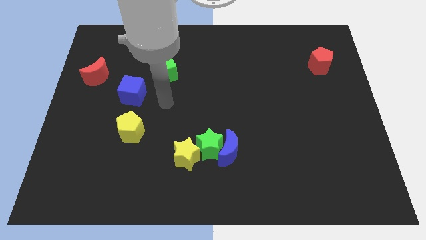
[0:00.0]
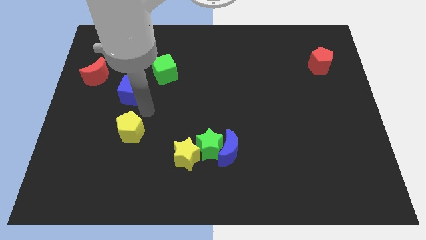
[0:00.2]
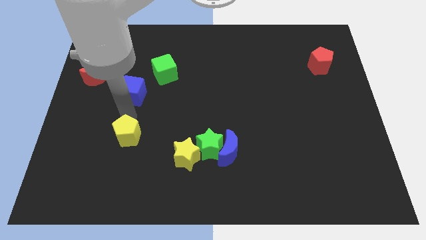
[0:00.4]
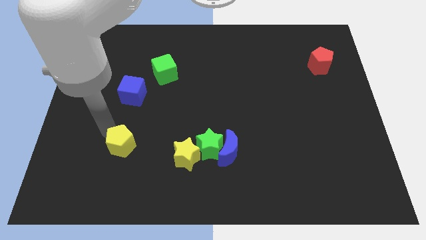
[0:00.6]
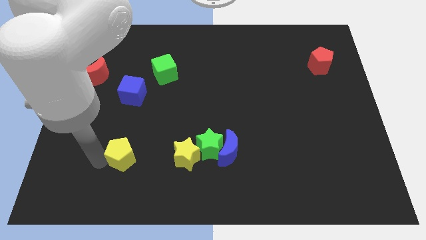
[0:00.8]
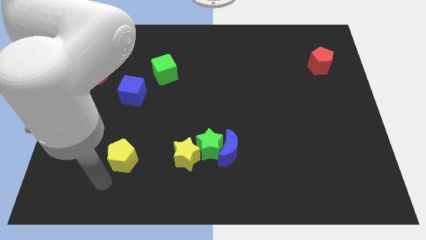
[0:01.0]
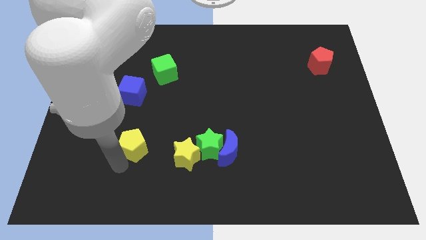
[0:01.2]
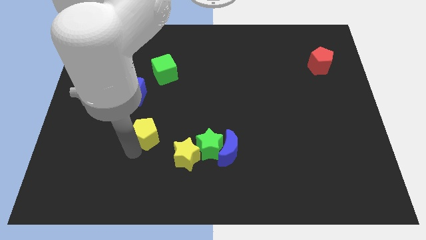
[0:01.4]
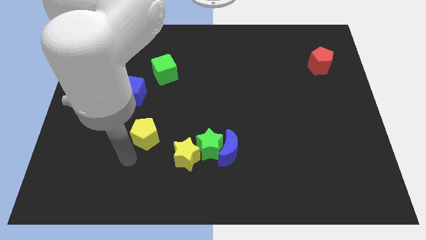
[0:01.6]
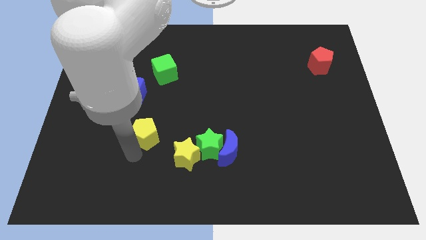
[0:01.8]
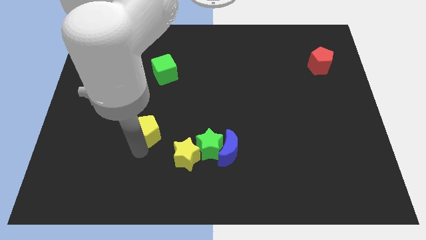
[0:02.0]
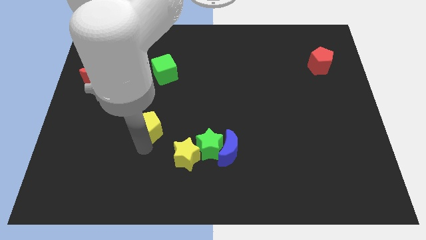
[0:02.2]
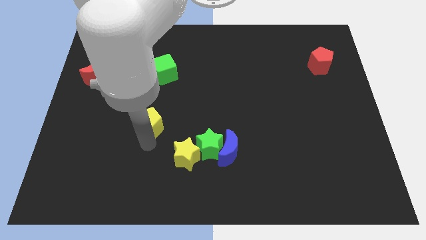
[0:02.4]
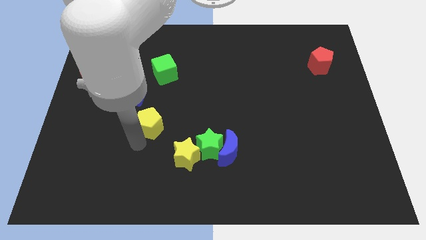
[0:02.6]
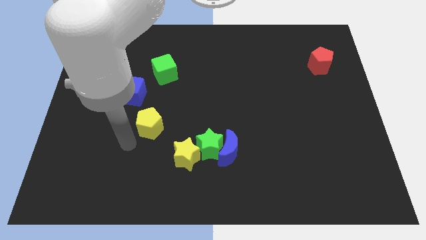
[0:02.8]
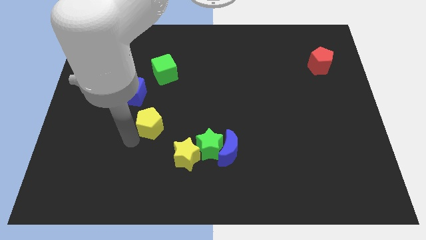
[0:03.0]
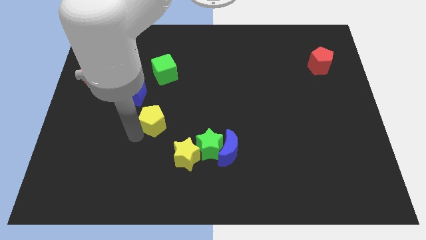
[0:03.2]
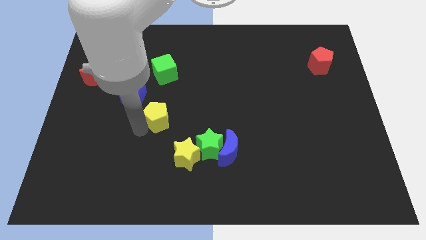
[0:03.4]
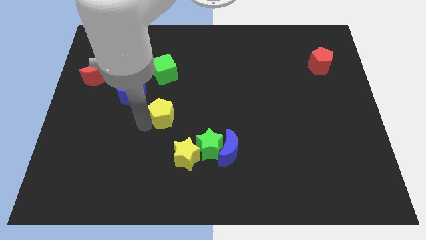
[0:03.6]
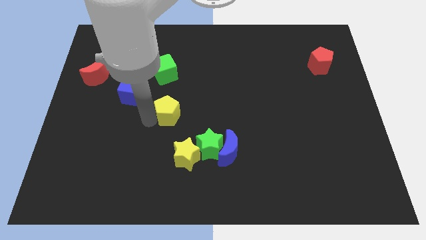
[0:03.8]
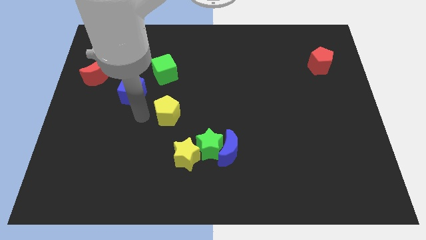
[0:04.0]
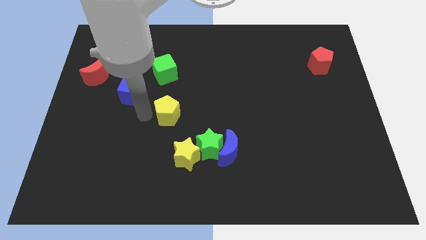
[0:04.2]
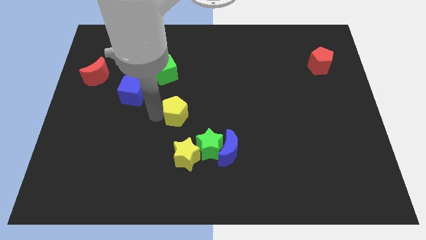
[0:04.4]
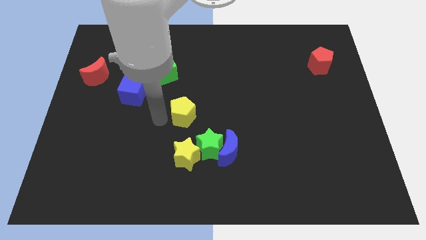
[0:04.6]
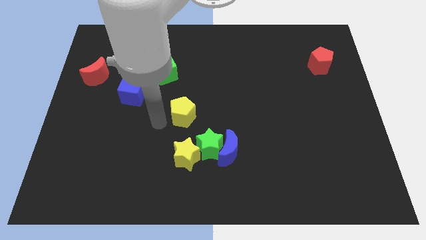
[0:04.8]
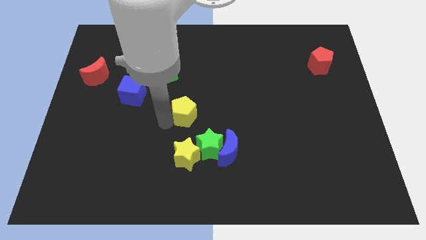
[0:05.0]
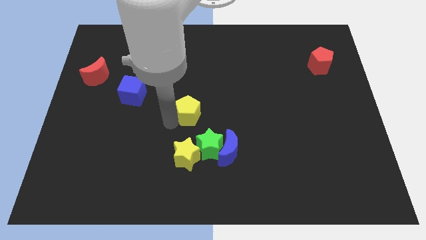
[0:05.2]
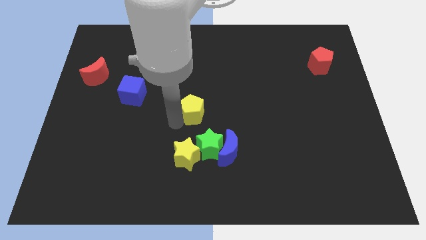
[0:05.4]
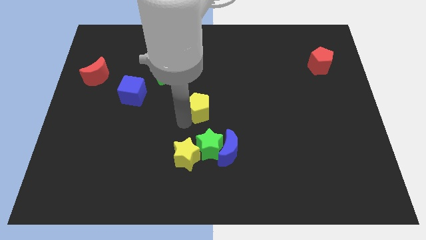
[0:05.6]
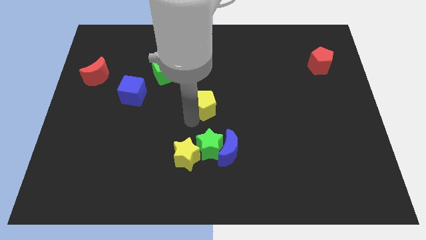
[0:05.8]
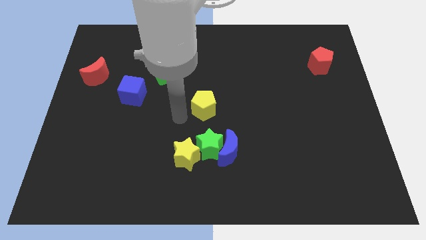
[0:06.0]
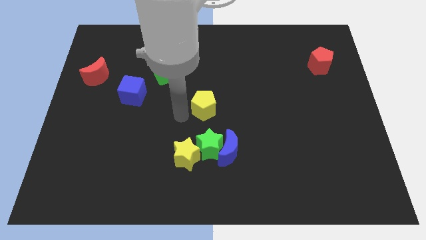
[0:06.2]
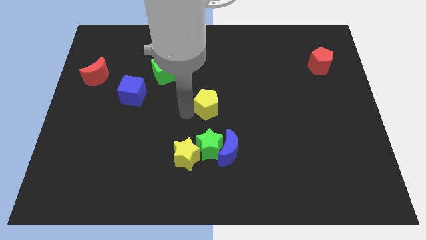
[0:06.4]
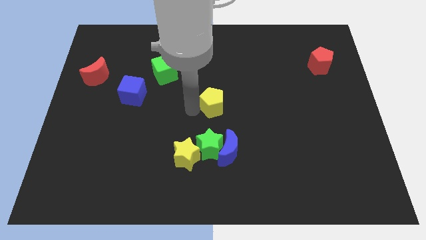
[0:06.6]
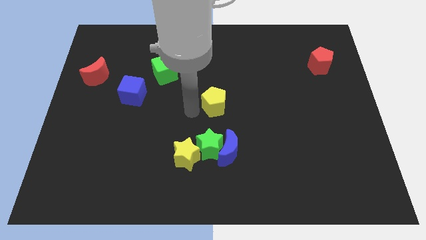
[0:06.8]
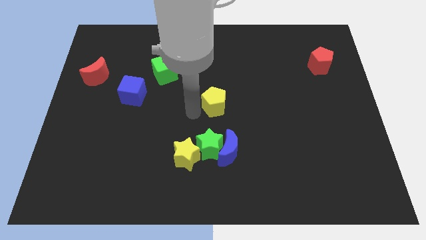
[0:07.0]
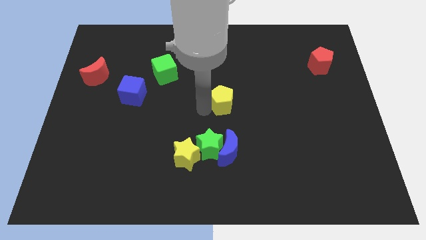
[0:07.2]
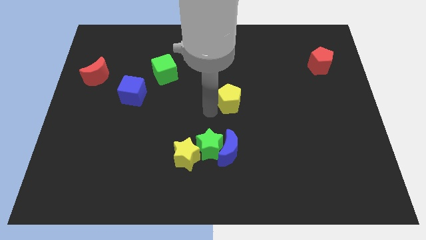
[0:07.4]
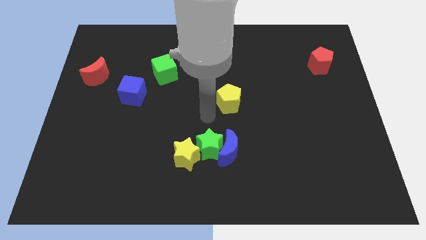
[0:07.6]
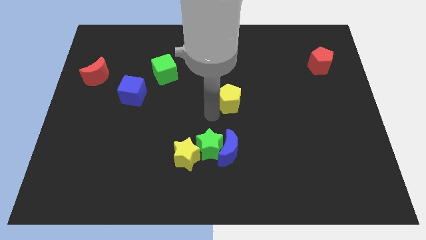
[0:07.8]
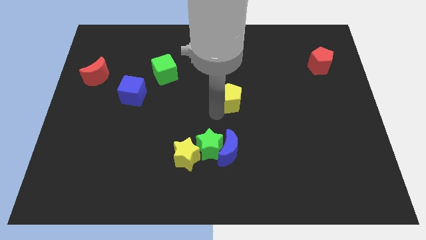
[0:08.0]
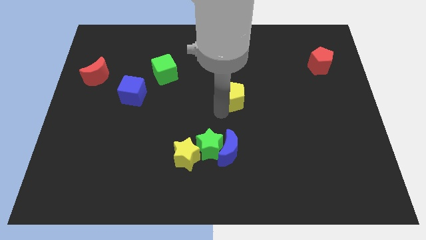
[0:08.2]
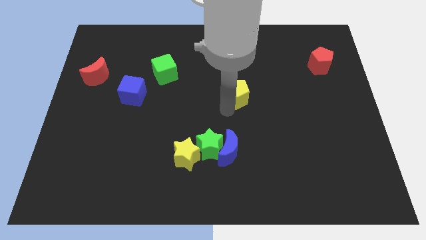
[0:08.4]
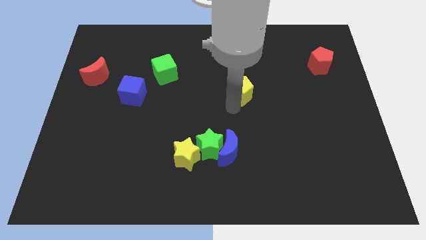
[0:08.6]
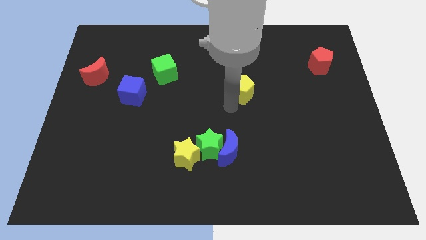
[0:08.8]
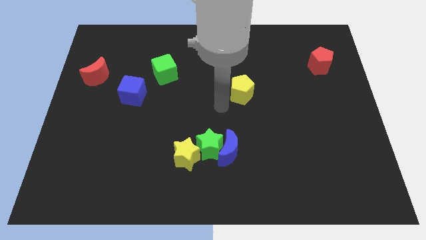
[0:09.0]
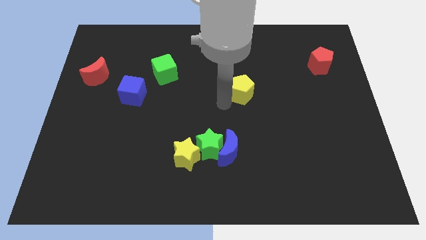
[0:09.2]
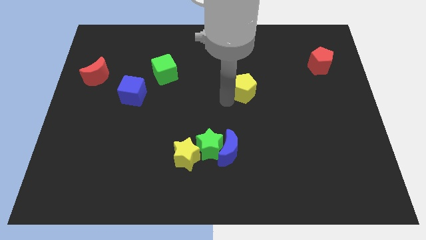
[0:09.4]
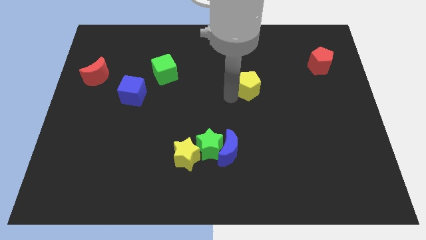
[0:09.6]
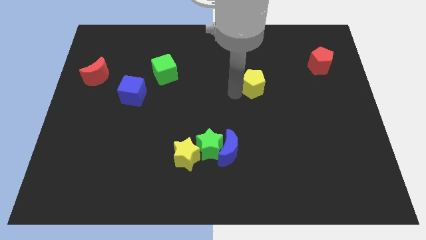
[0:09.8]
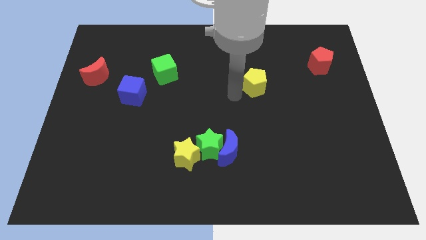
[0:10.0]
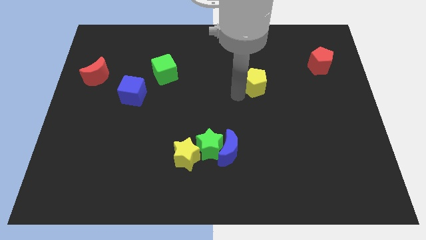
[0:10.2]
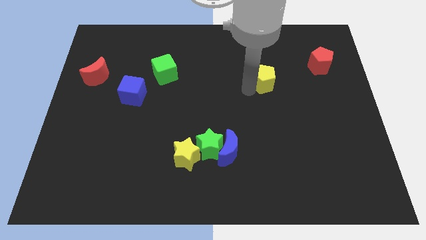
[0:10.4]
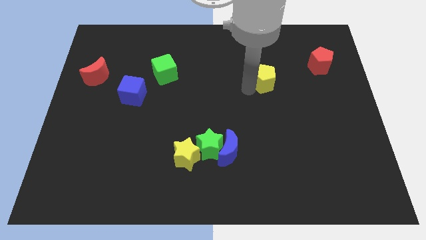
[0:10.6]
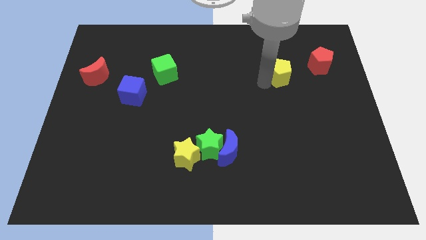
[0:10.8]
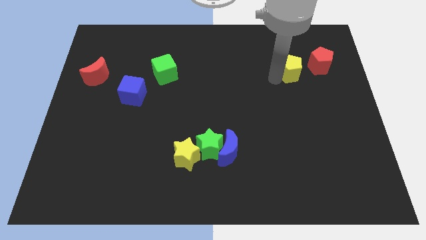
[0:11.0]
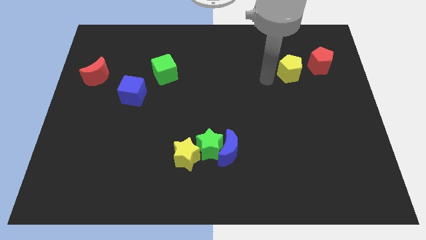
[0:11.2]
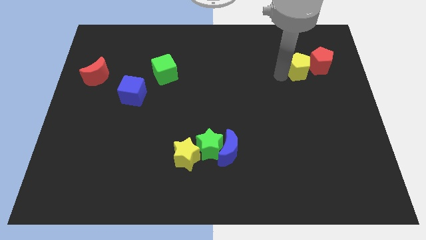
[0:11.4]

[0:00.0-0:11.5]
push the yellow pentagon next to the red pentagon

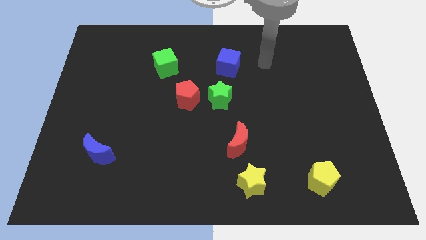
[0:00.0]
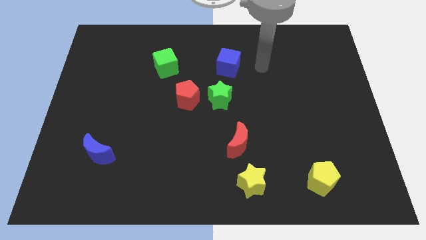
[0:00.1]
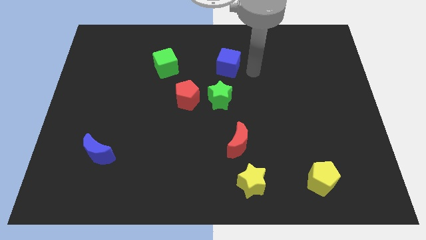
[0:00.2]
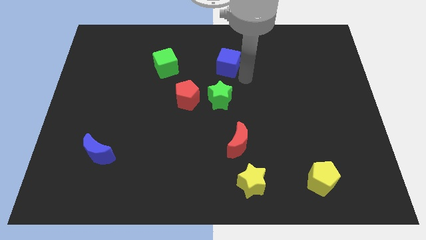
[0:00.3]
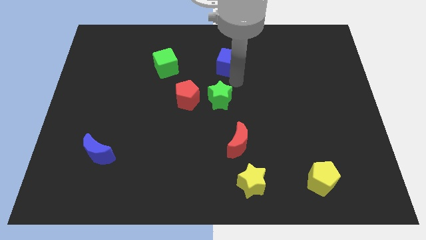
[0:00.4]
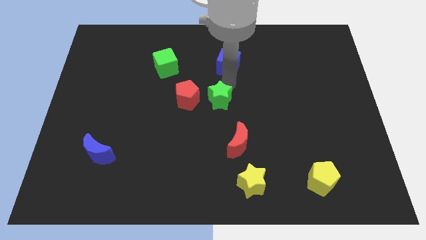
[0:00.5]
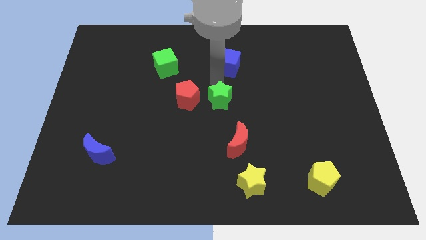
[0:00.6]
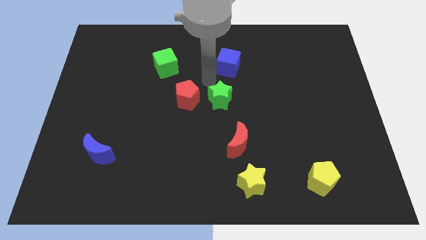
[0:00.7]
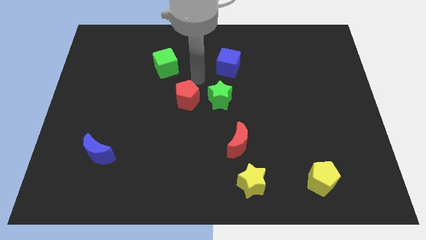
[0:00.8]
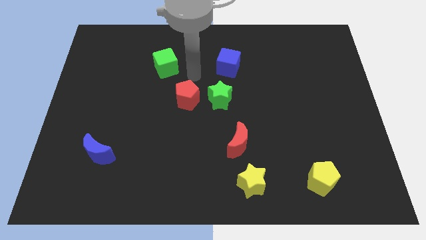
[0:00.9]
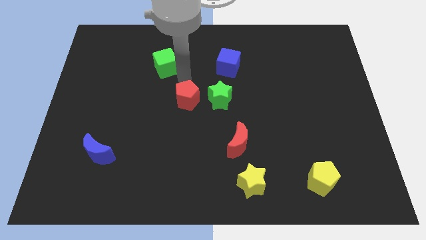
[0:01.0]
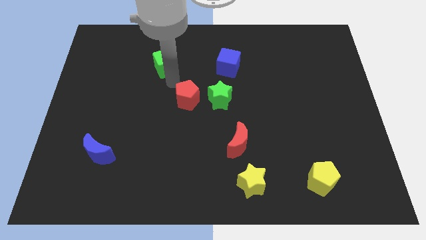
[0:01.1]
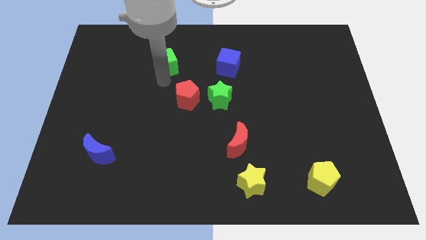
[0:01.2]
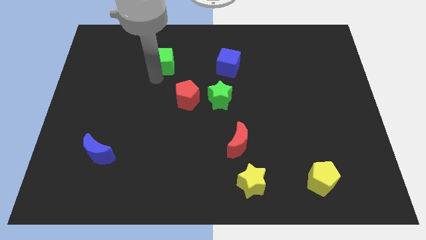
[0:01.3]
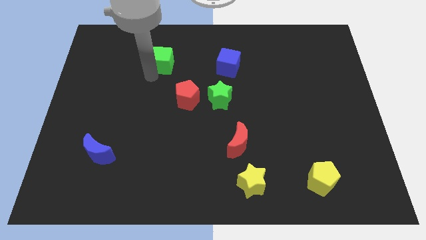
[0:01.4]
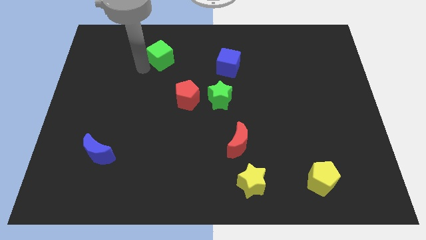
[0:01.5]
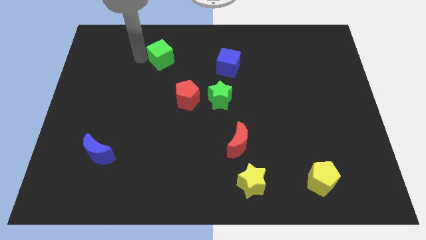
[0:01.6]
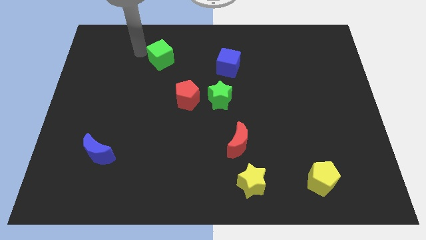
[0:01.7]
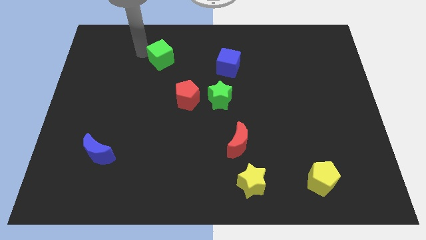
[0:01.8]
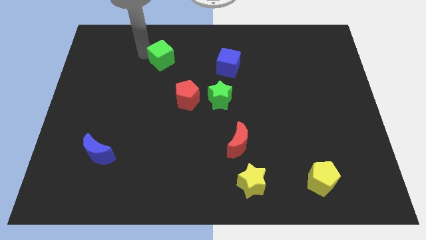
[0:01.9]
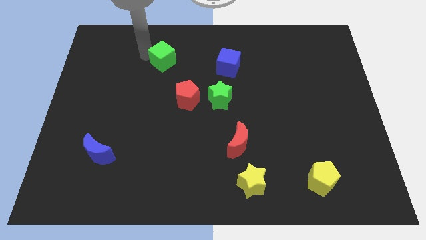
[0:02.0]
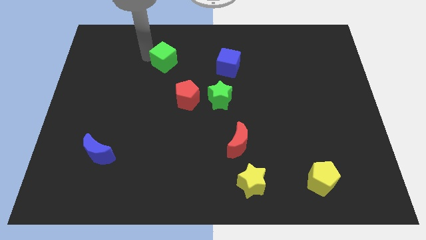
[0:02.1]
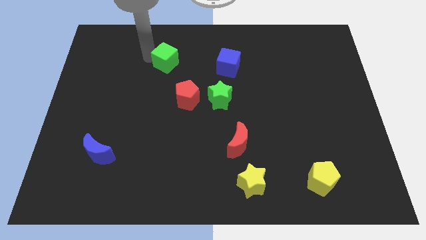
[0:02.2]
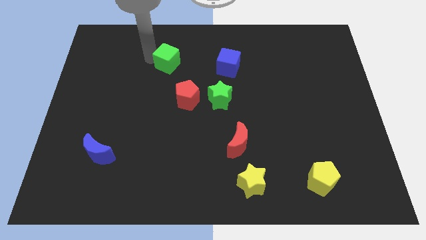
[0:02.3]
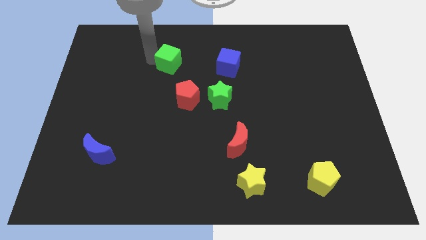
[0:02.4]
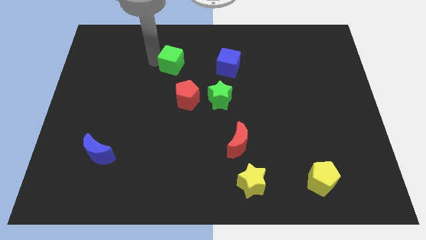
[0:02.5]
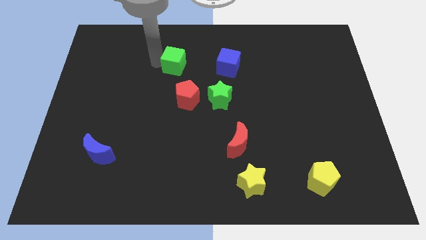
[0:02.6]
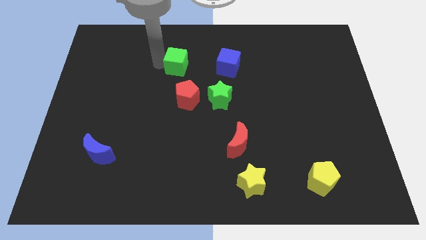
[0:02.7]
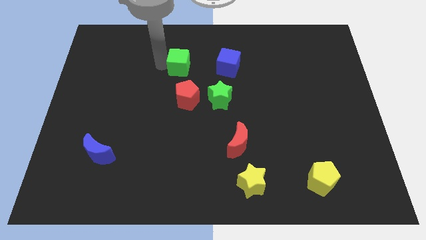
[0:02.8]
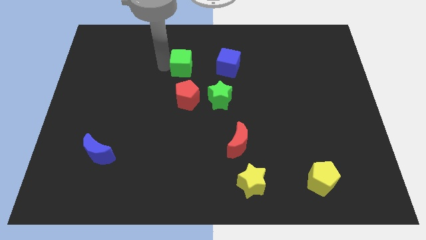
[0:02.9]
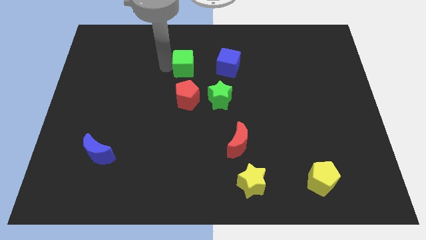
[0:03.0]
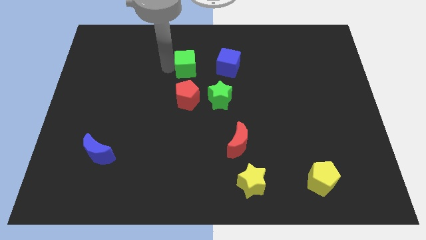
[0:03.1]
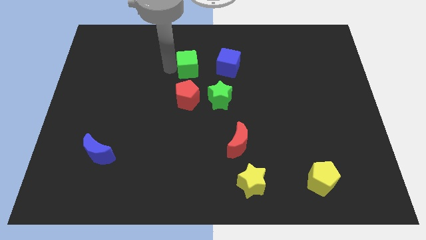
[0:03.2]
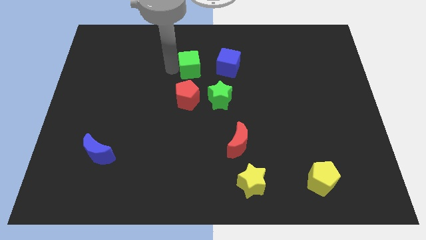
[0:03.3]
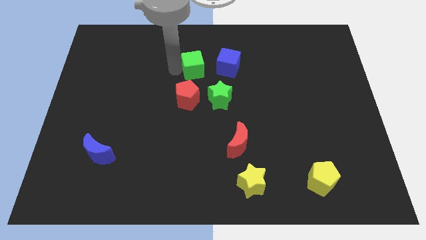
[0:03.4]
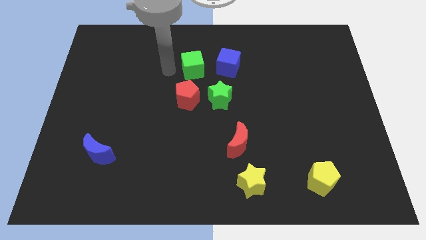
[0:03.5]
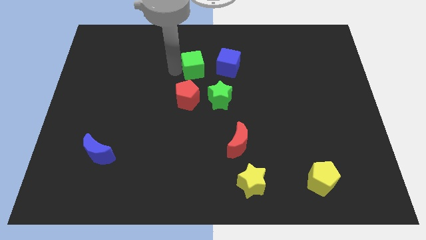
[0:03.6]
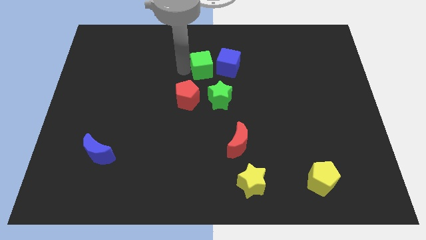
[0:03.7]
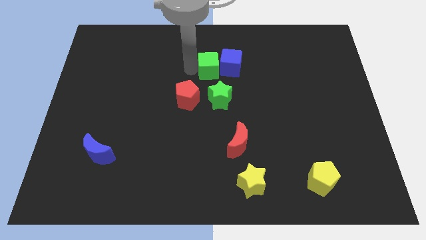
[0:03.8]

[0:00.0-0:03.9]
push the green cube to the blue cube
